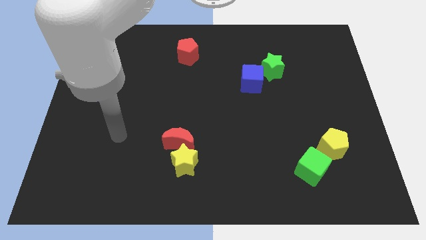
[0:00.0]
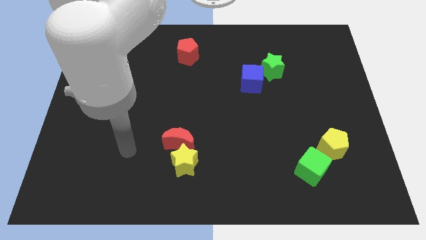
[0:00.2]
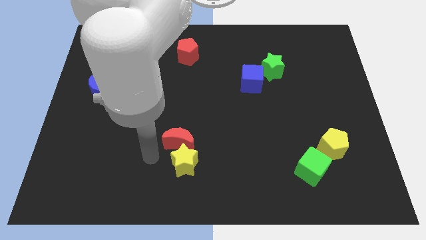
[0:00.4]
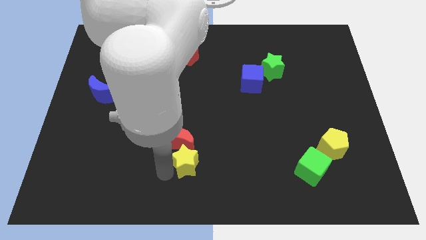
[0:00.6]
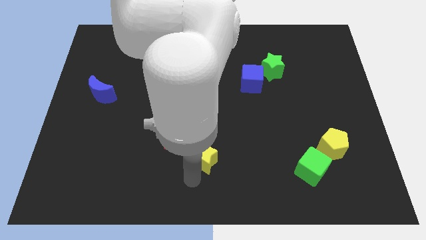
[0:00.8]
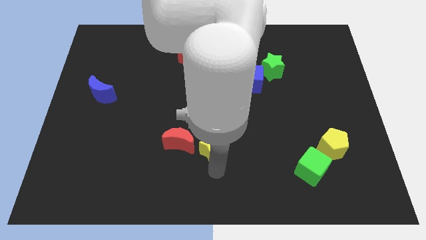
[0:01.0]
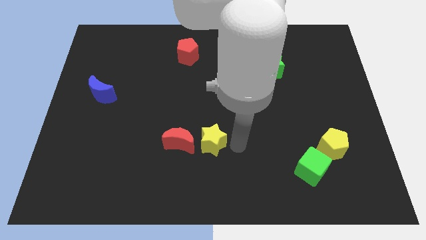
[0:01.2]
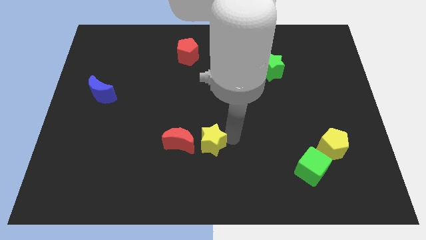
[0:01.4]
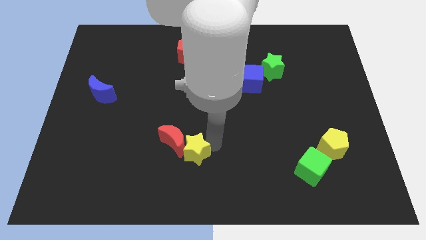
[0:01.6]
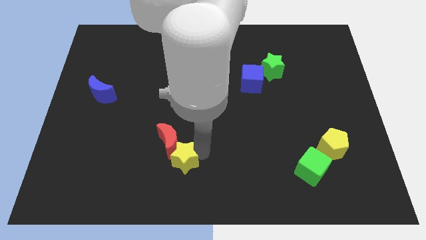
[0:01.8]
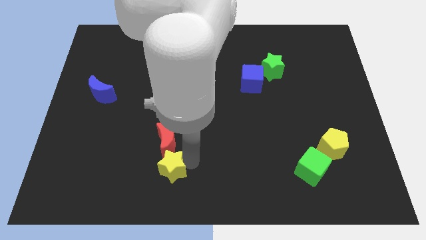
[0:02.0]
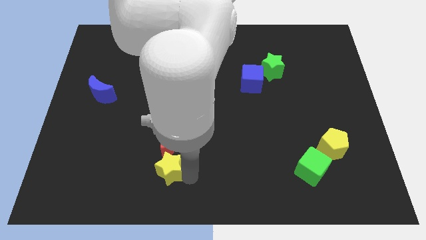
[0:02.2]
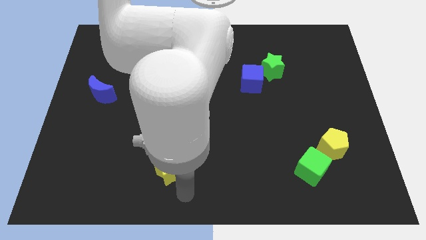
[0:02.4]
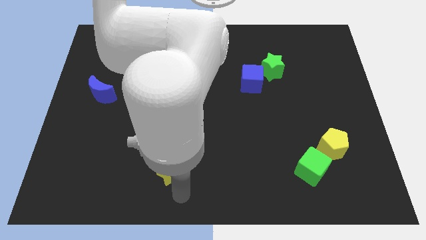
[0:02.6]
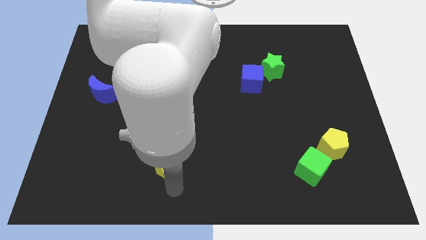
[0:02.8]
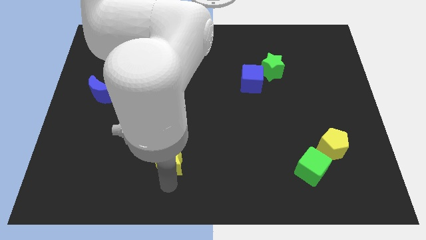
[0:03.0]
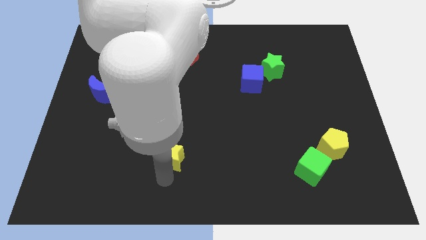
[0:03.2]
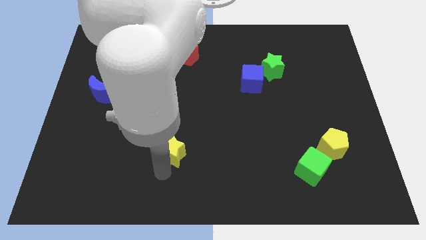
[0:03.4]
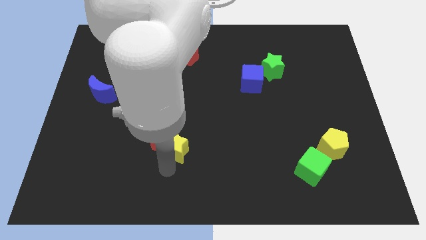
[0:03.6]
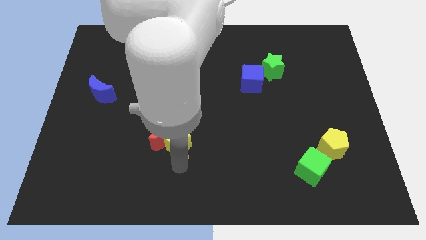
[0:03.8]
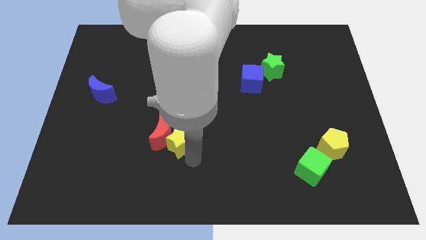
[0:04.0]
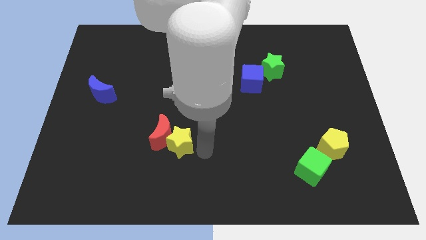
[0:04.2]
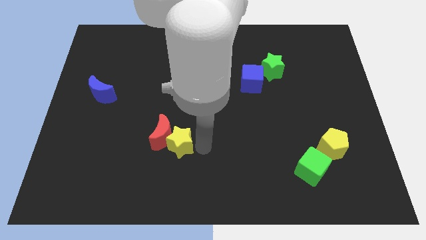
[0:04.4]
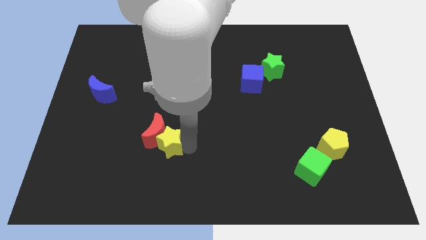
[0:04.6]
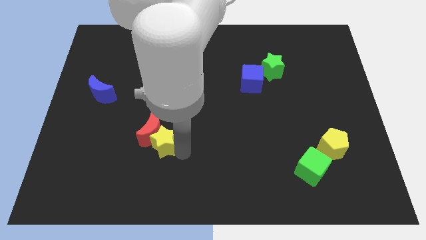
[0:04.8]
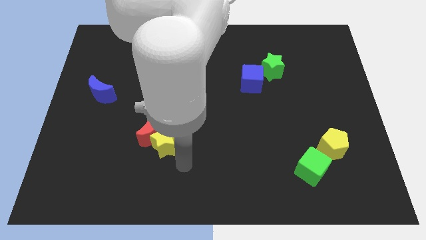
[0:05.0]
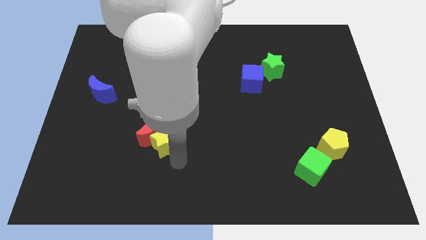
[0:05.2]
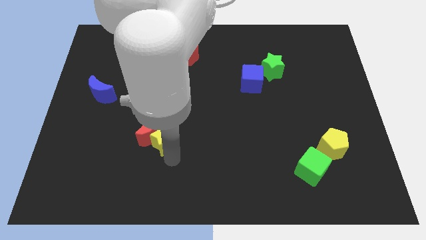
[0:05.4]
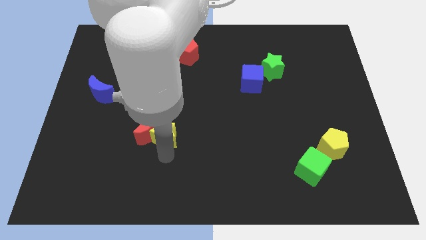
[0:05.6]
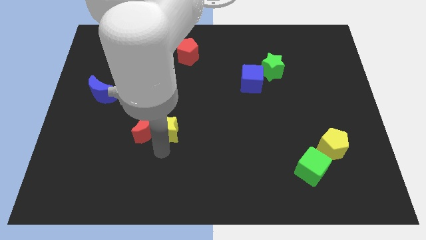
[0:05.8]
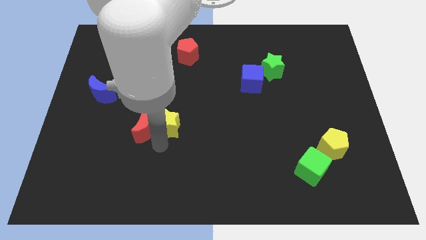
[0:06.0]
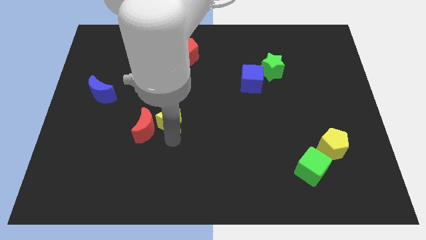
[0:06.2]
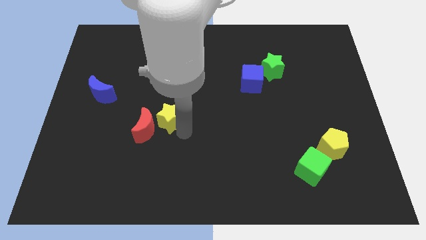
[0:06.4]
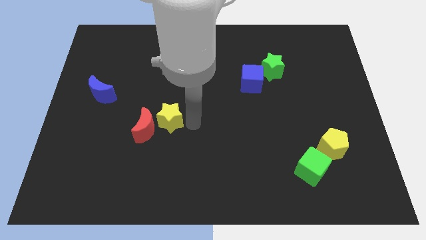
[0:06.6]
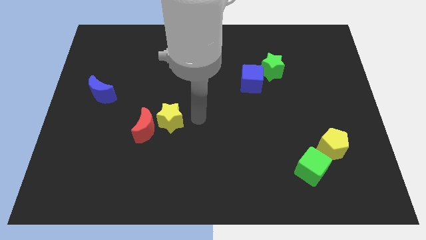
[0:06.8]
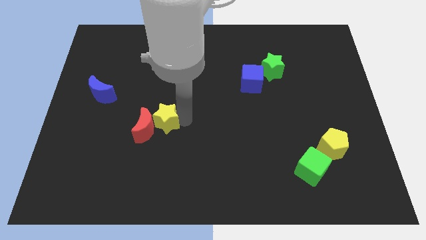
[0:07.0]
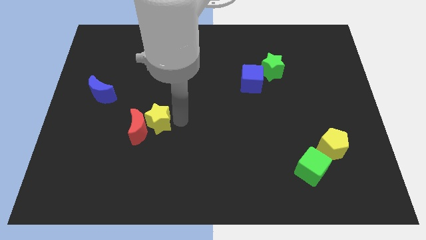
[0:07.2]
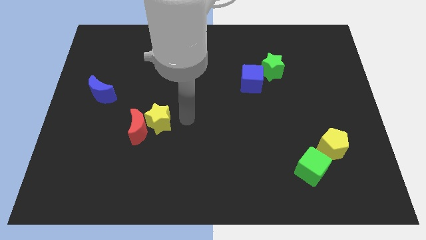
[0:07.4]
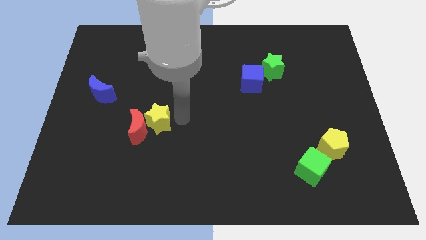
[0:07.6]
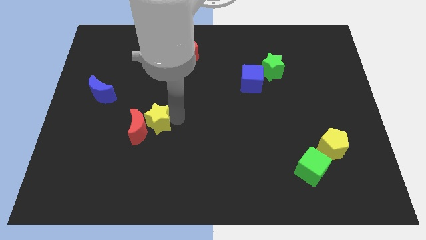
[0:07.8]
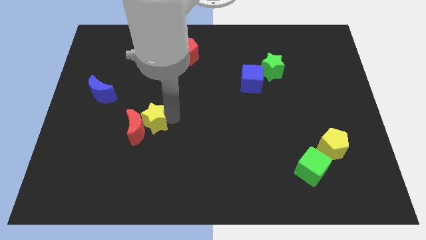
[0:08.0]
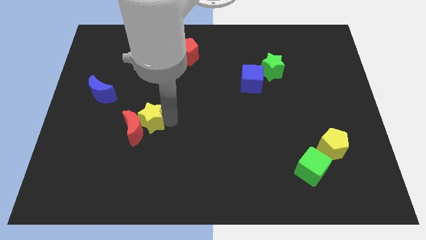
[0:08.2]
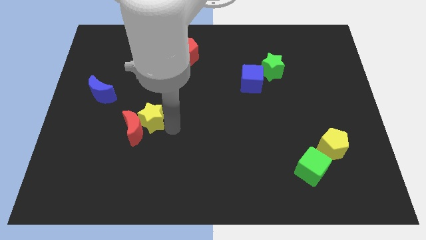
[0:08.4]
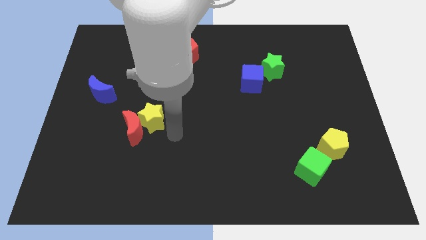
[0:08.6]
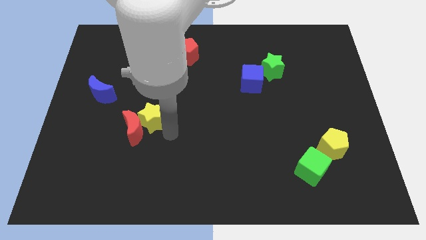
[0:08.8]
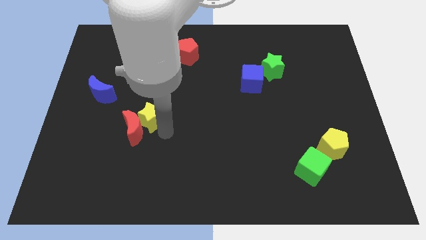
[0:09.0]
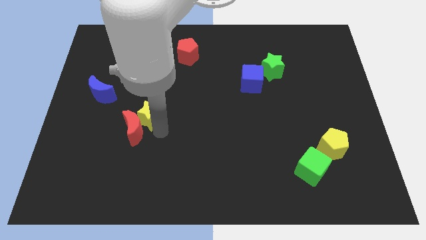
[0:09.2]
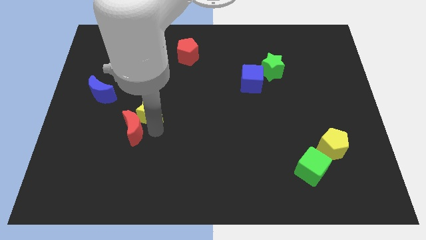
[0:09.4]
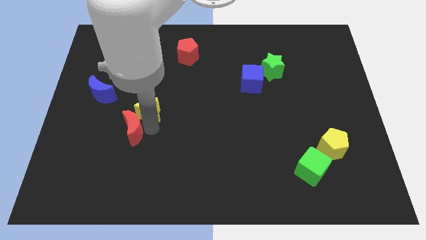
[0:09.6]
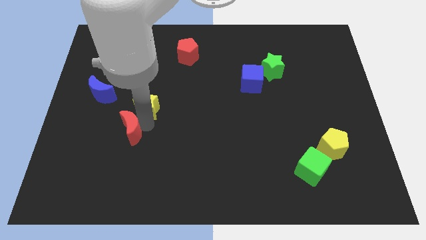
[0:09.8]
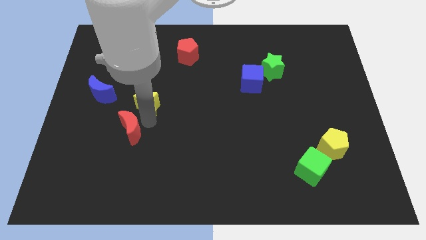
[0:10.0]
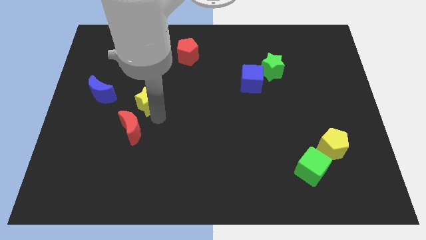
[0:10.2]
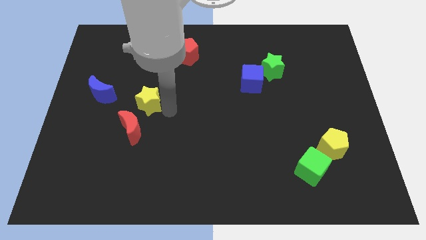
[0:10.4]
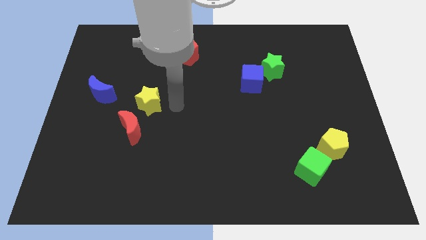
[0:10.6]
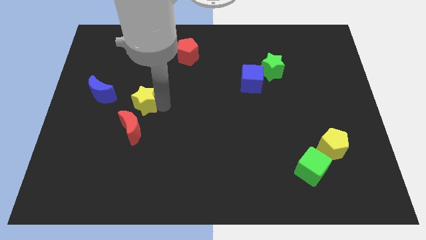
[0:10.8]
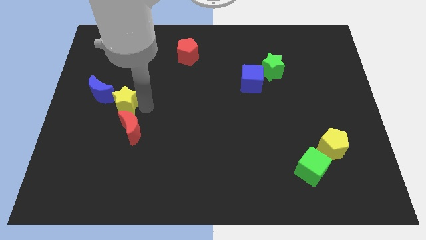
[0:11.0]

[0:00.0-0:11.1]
move the yellow star diagonally upwards and to the left

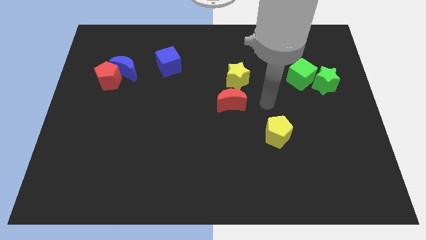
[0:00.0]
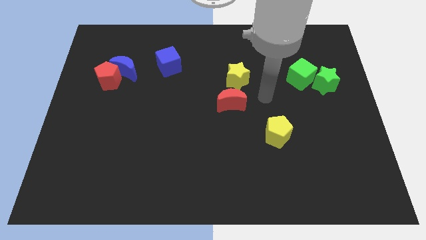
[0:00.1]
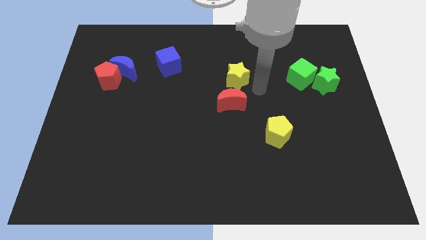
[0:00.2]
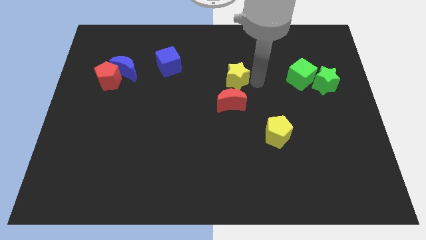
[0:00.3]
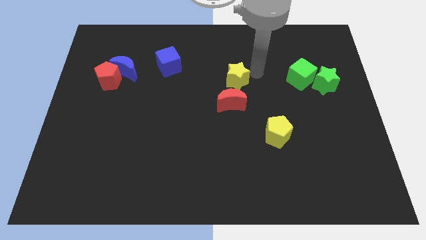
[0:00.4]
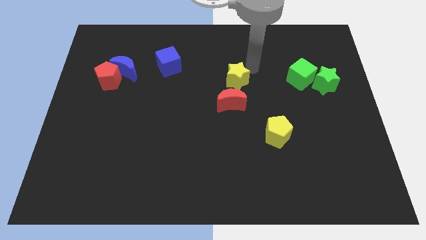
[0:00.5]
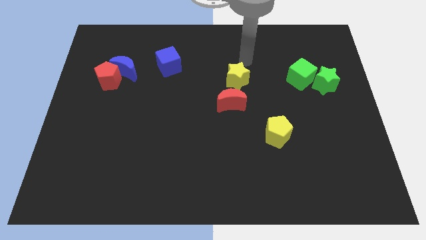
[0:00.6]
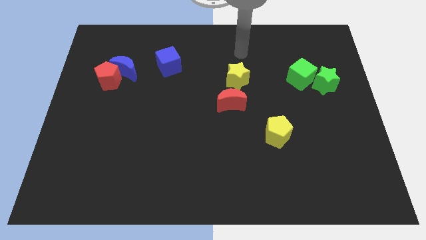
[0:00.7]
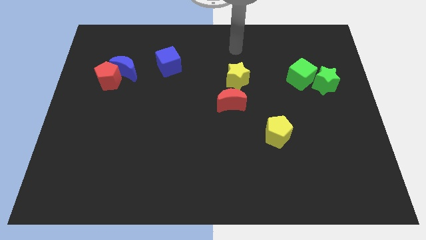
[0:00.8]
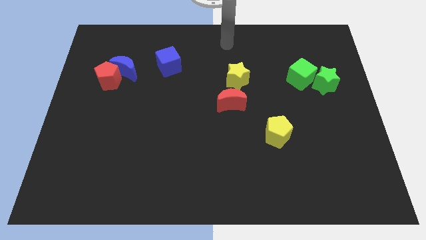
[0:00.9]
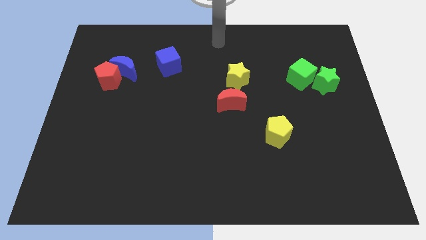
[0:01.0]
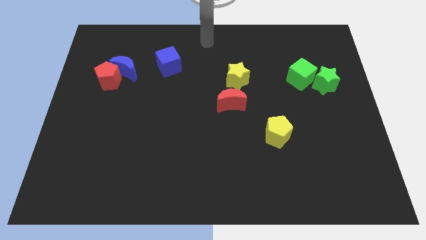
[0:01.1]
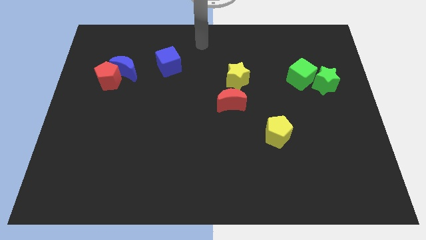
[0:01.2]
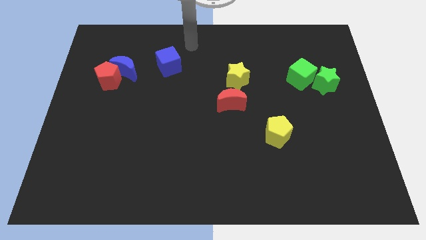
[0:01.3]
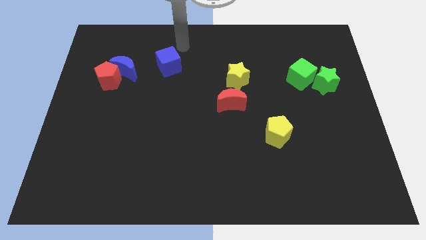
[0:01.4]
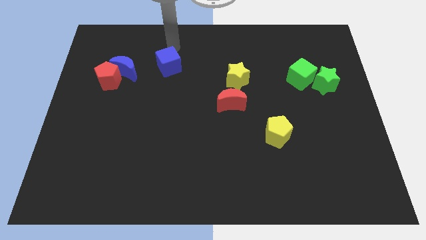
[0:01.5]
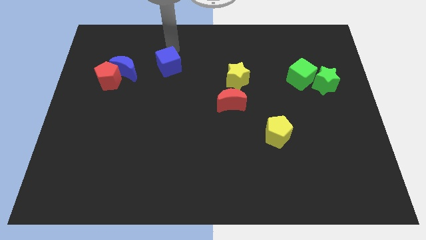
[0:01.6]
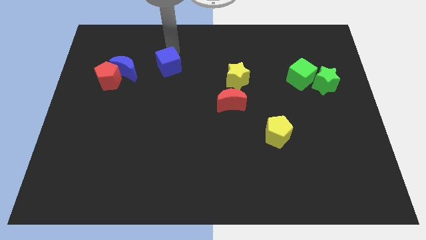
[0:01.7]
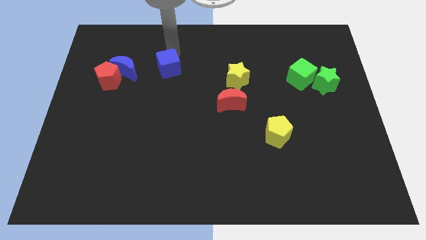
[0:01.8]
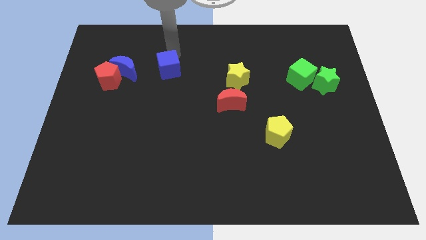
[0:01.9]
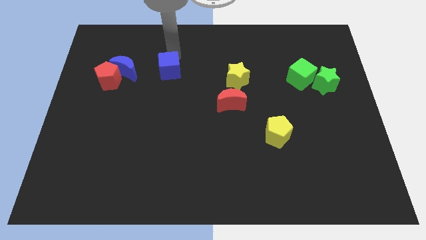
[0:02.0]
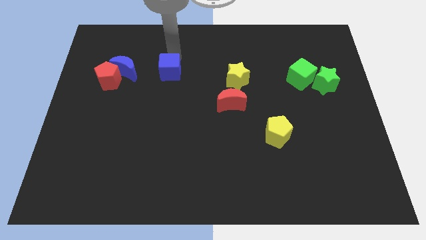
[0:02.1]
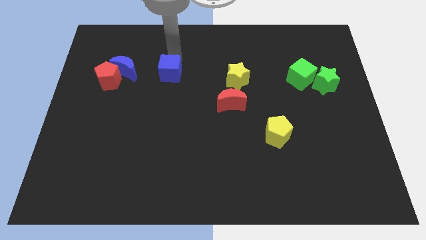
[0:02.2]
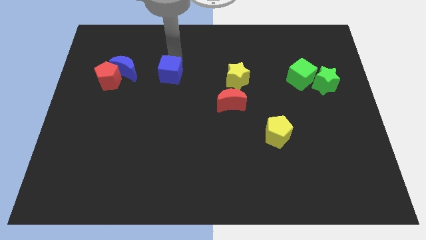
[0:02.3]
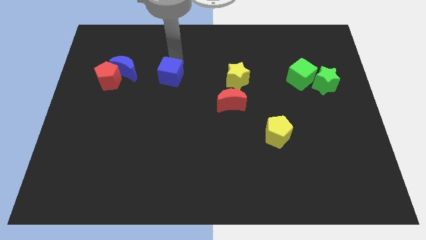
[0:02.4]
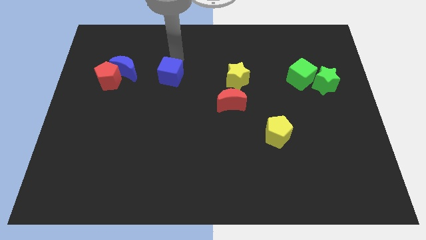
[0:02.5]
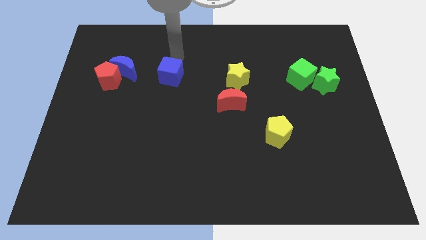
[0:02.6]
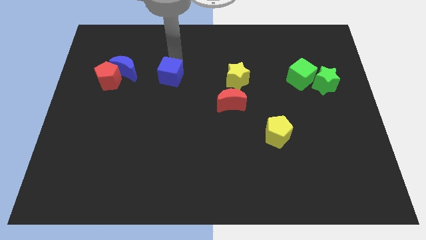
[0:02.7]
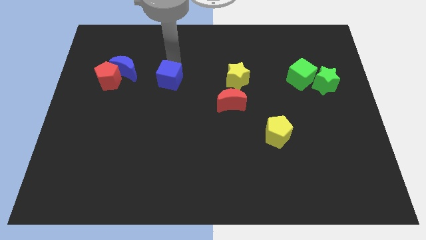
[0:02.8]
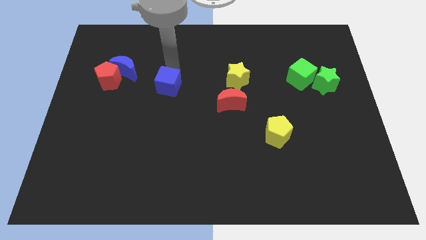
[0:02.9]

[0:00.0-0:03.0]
slightly slide the blue cube downwards
